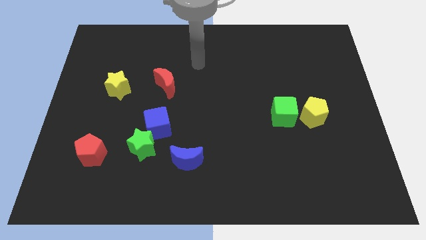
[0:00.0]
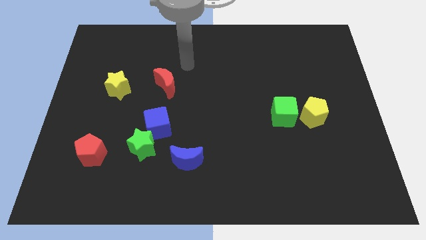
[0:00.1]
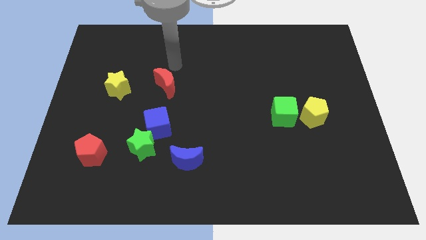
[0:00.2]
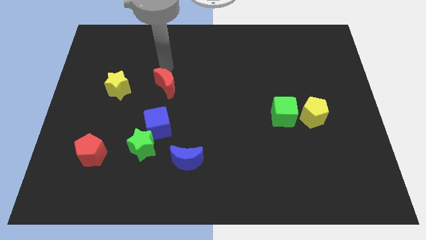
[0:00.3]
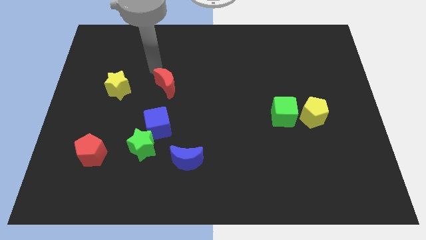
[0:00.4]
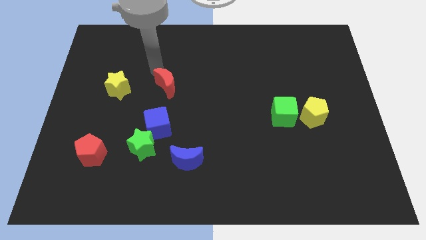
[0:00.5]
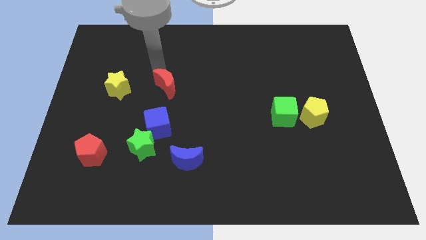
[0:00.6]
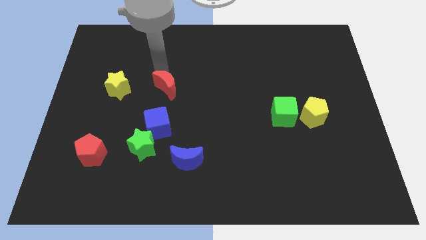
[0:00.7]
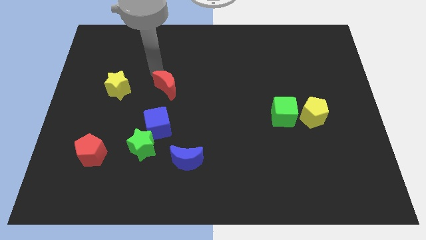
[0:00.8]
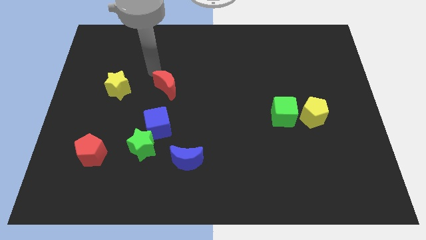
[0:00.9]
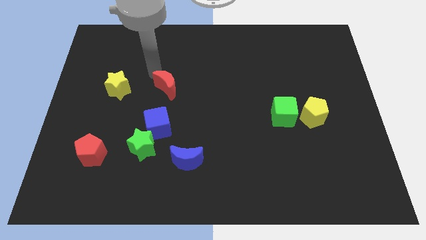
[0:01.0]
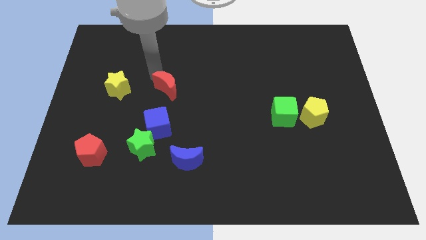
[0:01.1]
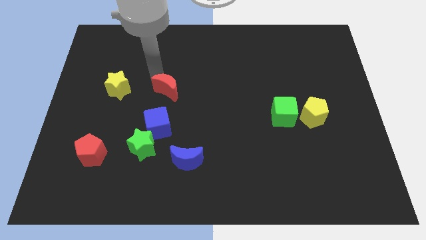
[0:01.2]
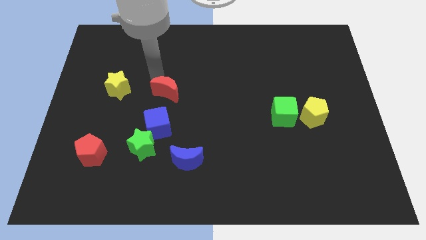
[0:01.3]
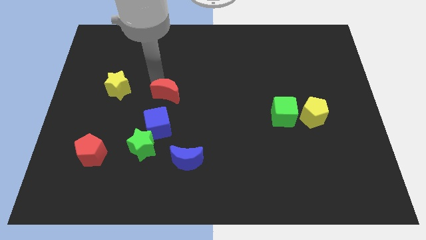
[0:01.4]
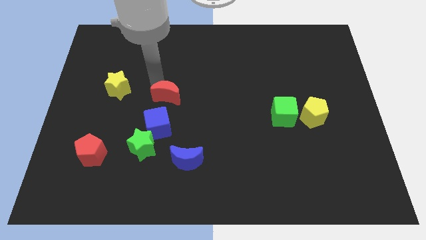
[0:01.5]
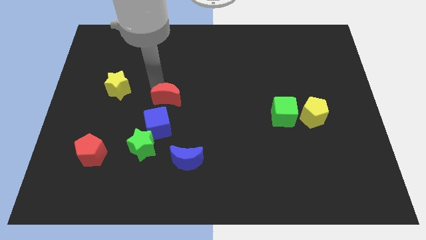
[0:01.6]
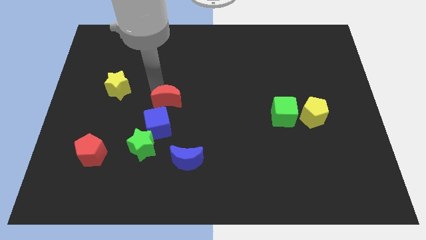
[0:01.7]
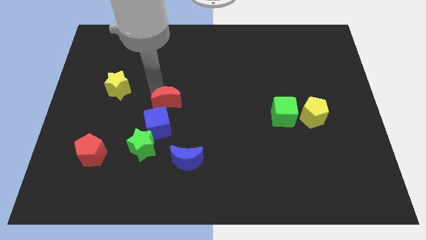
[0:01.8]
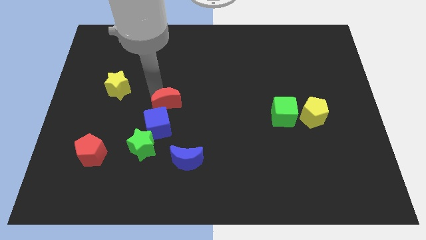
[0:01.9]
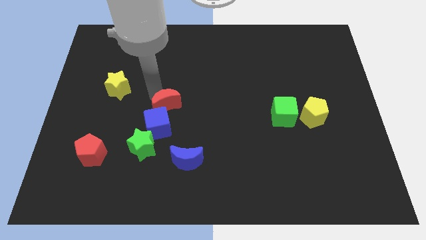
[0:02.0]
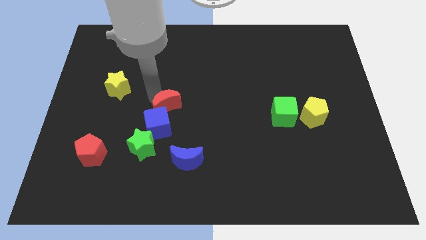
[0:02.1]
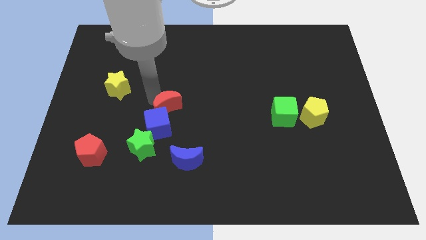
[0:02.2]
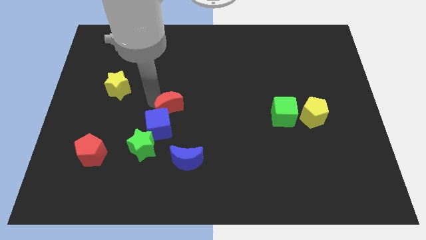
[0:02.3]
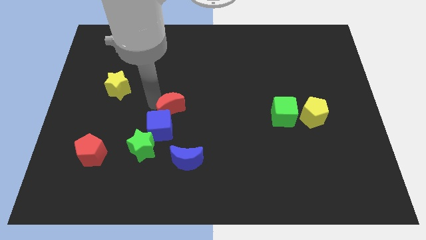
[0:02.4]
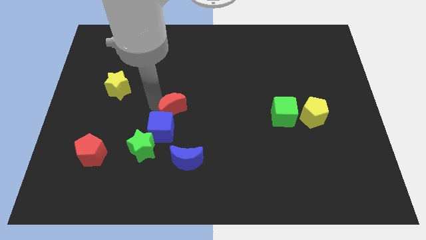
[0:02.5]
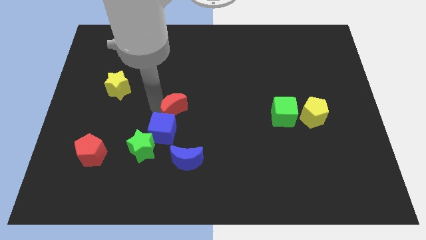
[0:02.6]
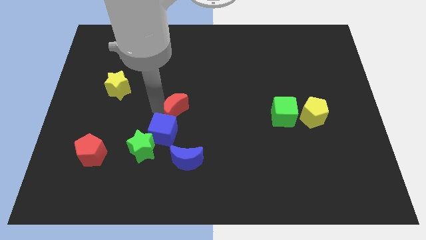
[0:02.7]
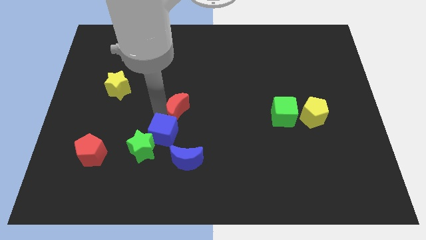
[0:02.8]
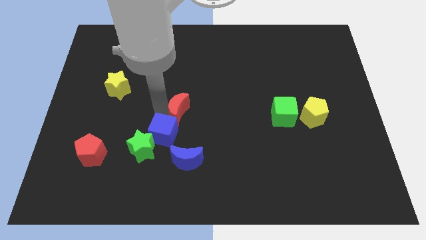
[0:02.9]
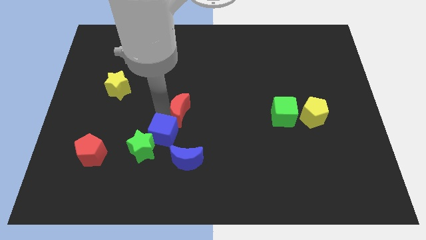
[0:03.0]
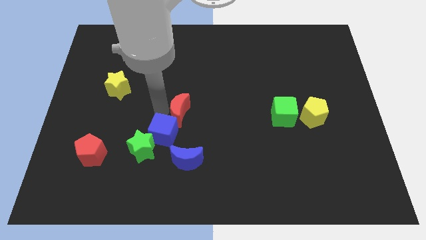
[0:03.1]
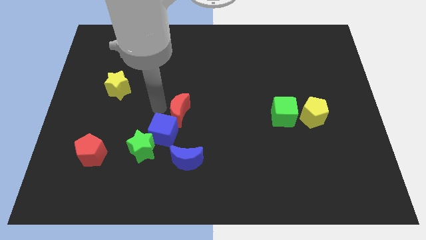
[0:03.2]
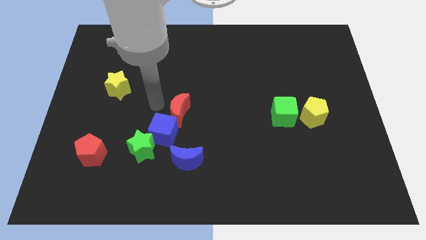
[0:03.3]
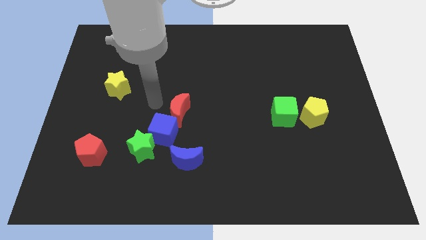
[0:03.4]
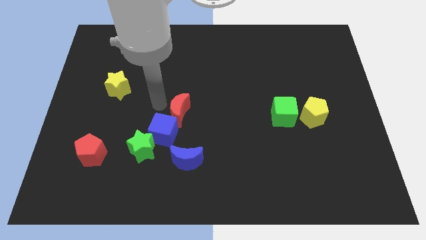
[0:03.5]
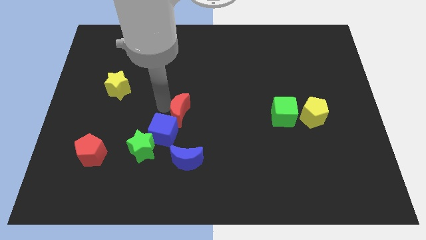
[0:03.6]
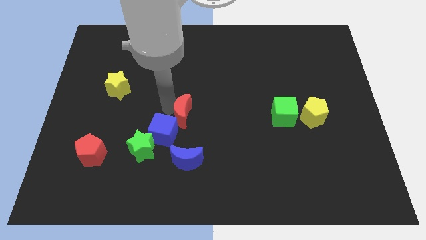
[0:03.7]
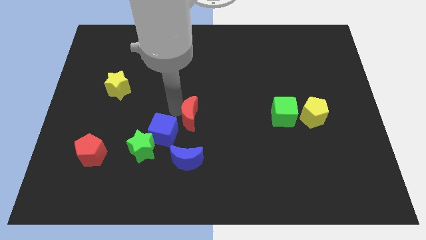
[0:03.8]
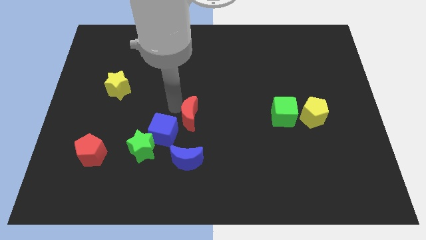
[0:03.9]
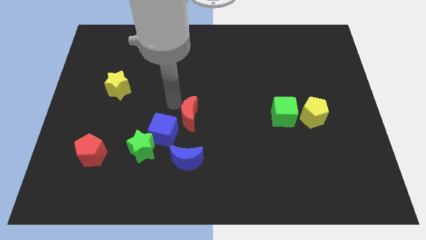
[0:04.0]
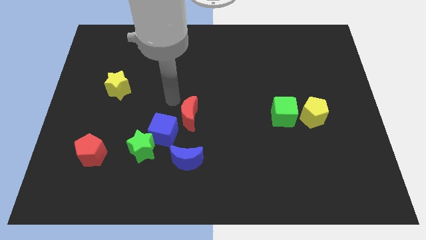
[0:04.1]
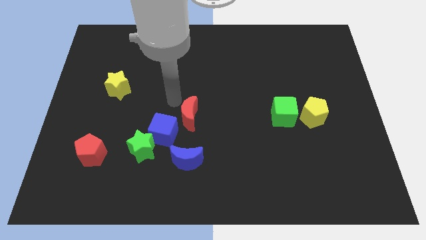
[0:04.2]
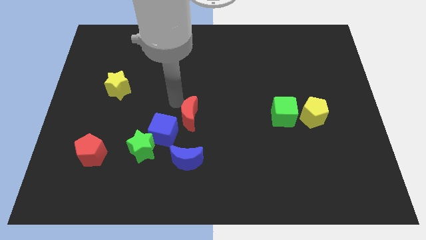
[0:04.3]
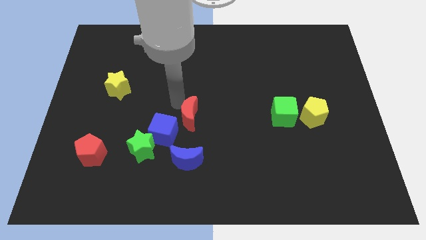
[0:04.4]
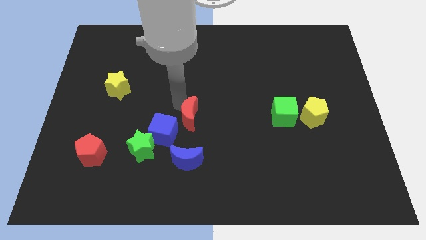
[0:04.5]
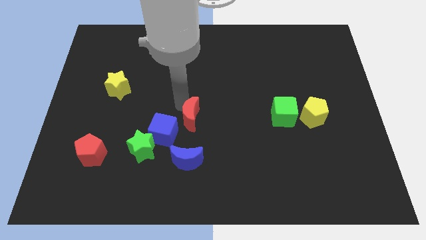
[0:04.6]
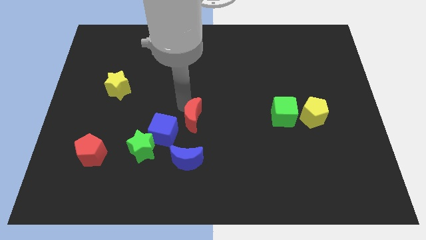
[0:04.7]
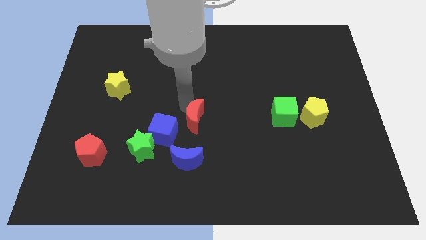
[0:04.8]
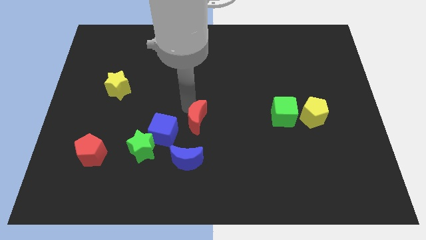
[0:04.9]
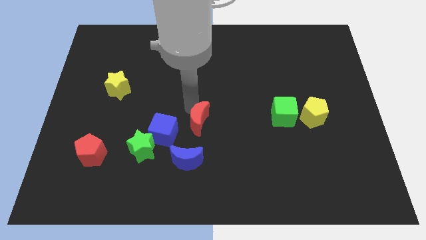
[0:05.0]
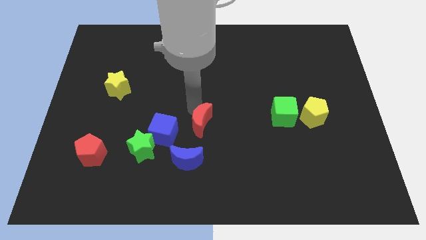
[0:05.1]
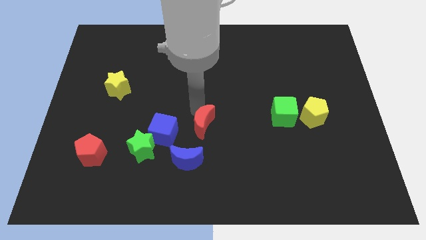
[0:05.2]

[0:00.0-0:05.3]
slide the red moon diagonally up and to the right of the blue moon
